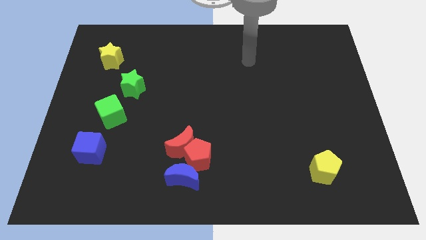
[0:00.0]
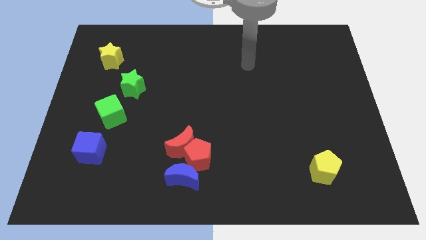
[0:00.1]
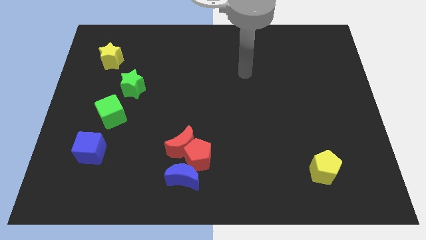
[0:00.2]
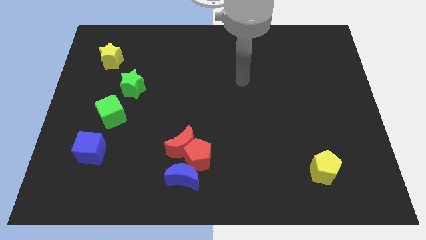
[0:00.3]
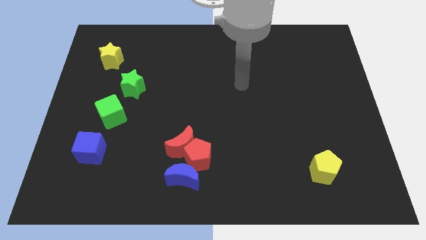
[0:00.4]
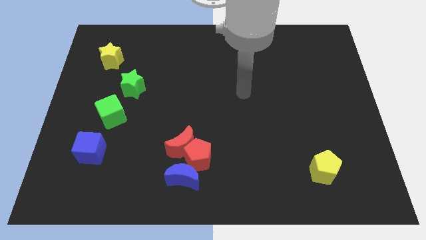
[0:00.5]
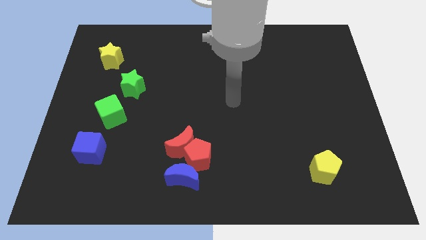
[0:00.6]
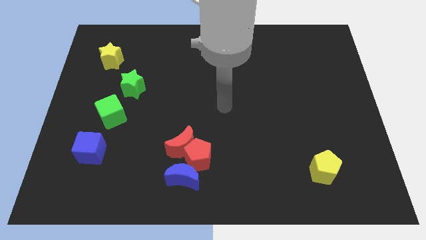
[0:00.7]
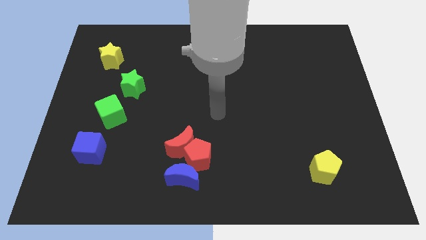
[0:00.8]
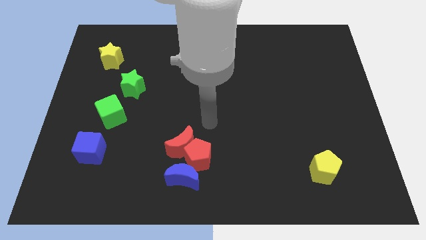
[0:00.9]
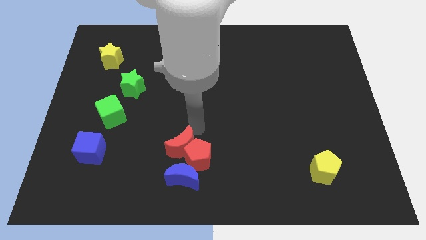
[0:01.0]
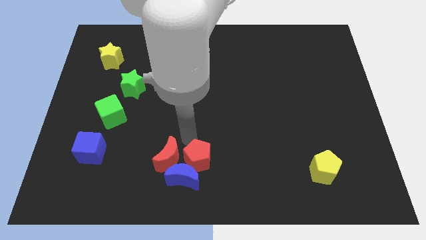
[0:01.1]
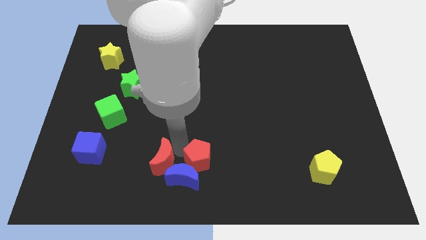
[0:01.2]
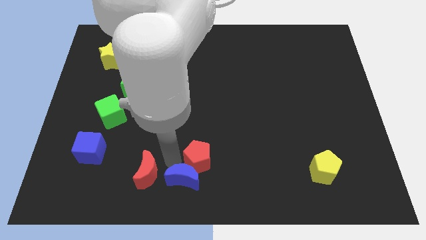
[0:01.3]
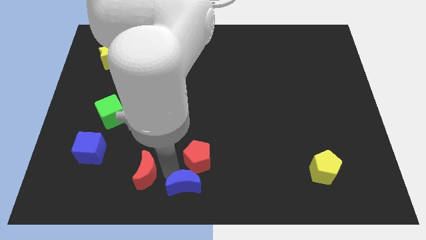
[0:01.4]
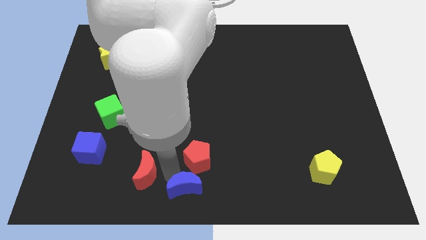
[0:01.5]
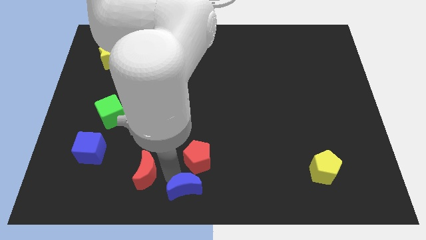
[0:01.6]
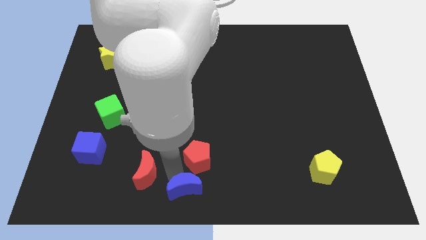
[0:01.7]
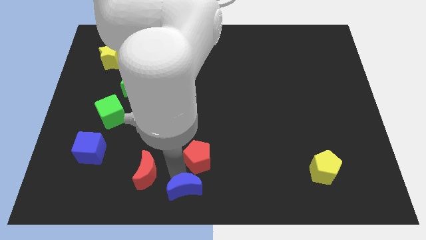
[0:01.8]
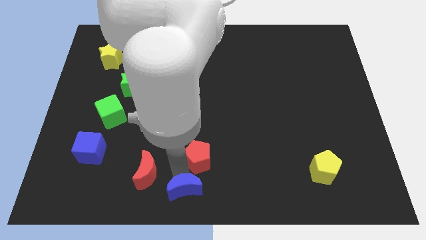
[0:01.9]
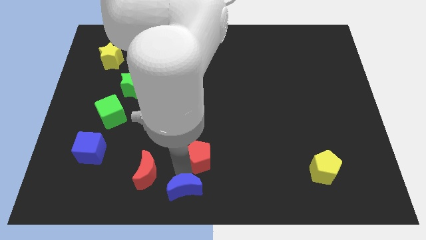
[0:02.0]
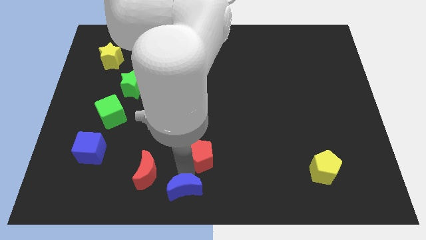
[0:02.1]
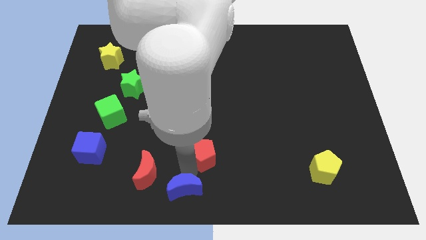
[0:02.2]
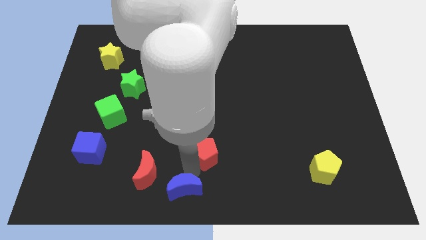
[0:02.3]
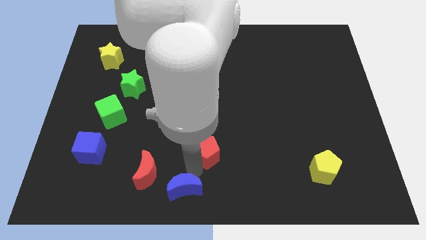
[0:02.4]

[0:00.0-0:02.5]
separate the red pentagon from the red moon and blue moon

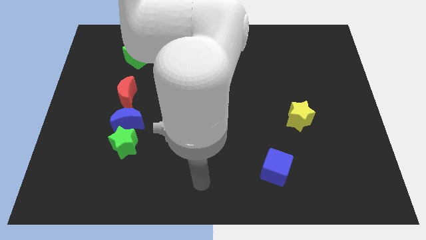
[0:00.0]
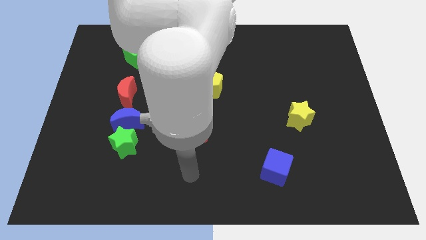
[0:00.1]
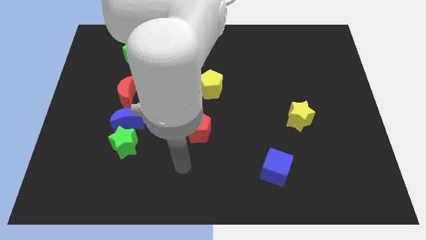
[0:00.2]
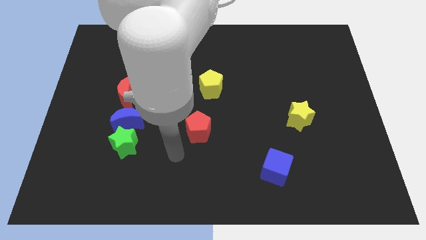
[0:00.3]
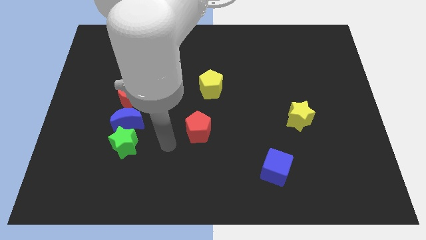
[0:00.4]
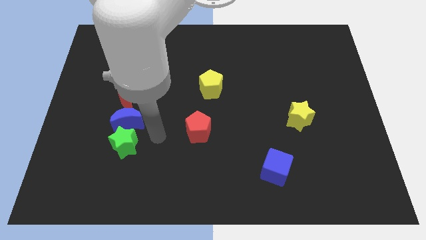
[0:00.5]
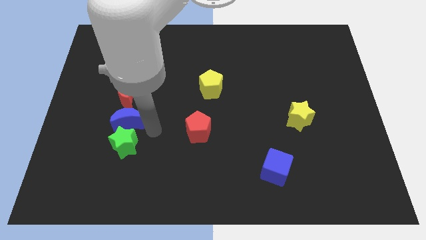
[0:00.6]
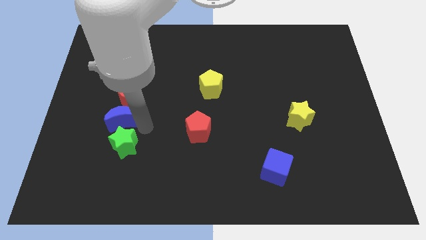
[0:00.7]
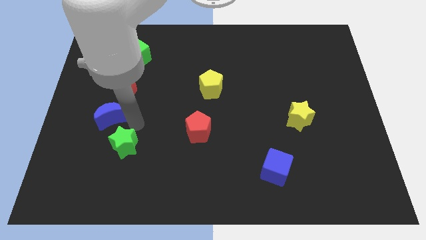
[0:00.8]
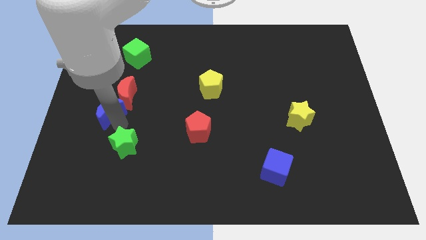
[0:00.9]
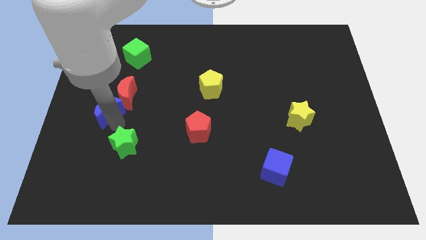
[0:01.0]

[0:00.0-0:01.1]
separate the green star from the blue moon

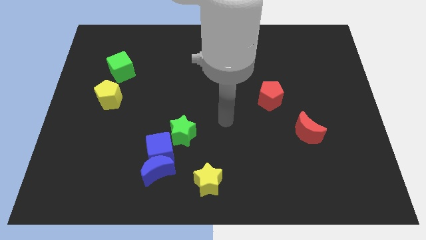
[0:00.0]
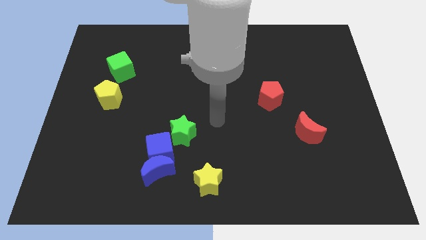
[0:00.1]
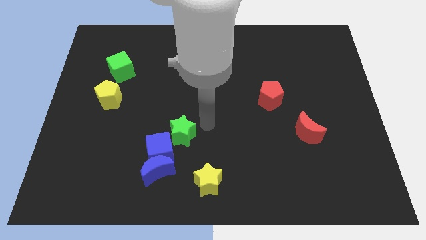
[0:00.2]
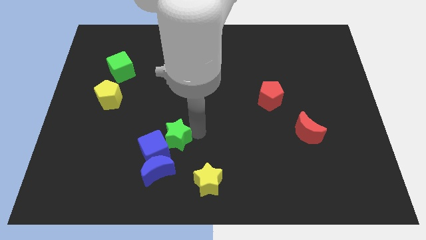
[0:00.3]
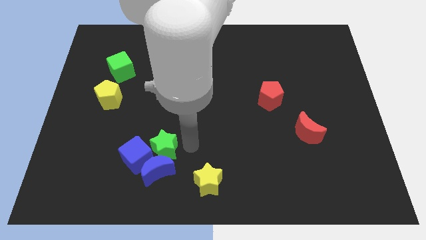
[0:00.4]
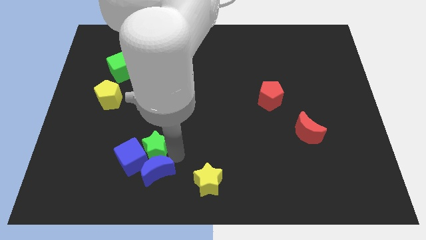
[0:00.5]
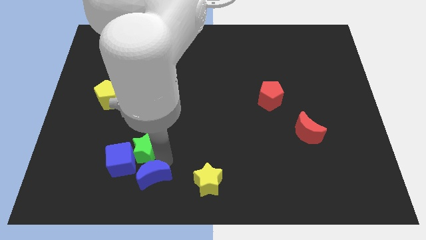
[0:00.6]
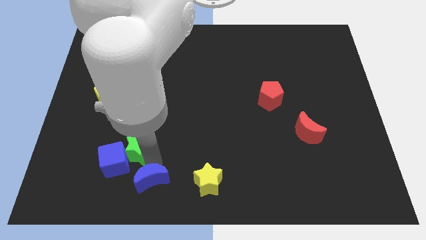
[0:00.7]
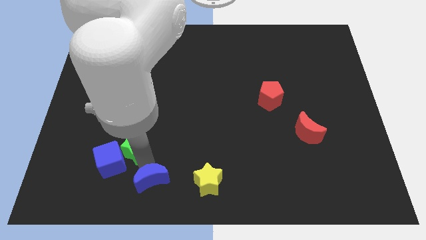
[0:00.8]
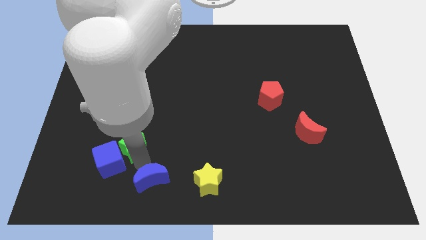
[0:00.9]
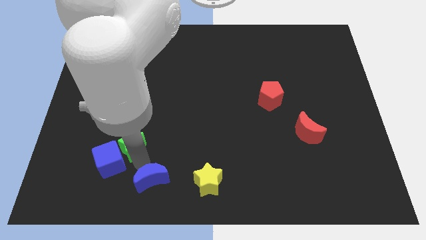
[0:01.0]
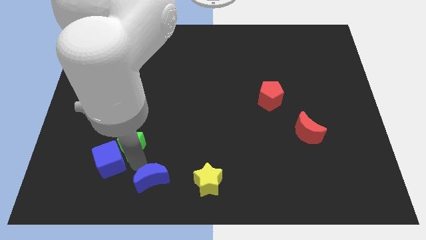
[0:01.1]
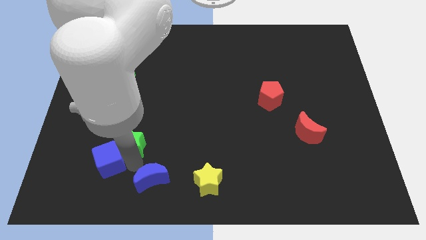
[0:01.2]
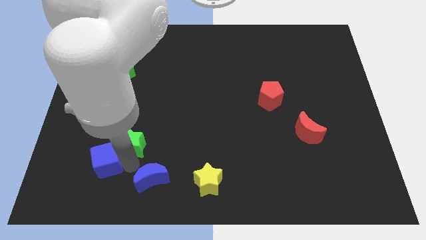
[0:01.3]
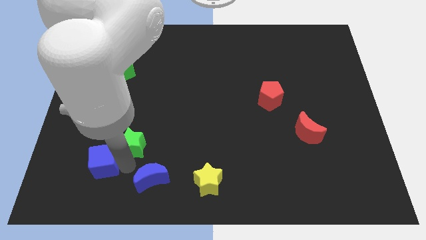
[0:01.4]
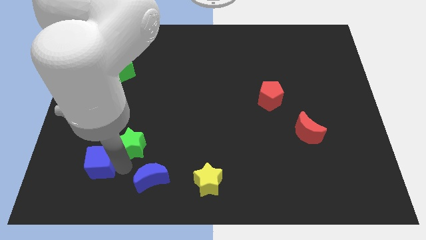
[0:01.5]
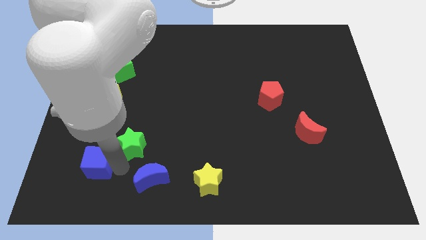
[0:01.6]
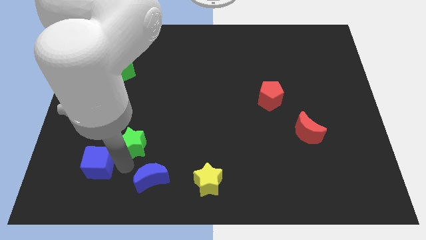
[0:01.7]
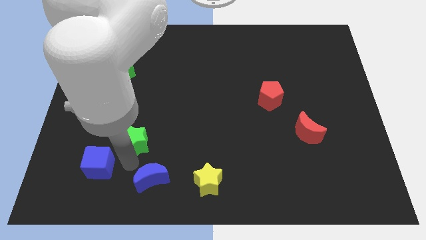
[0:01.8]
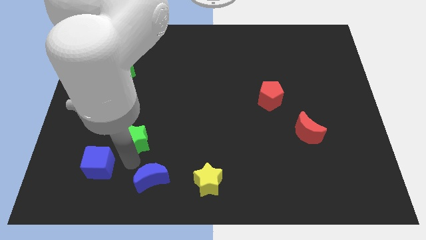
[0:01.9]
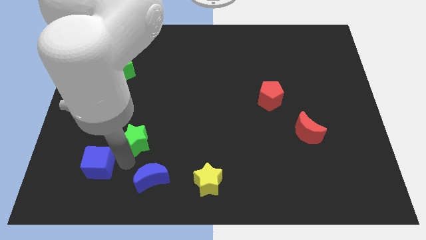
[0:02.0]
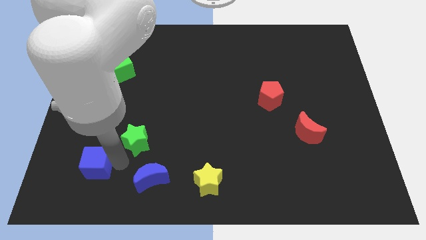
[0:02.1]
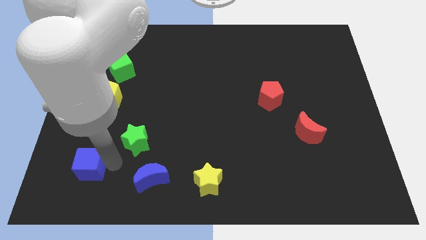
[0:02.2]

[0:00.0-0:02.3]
pull the blue cube apart from the blue moon and green star

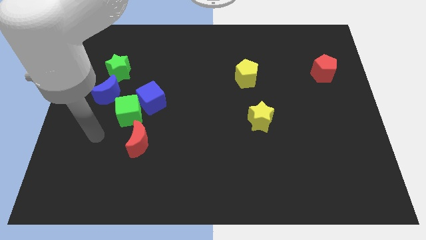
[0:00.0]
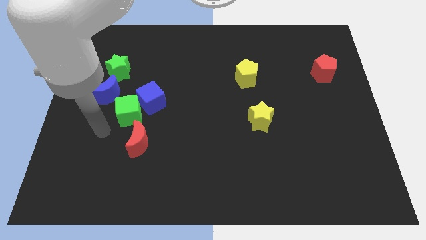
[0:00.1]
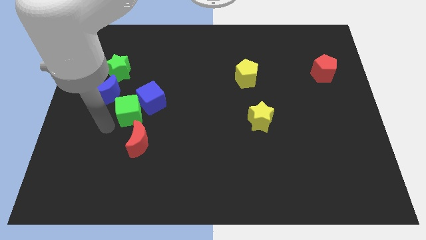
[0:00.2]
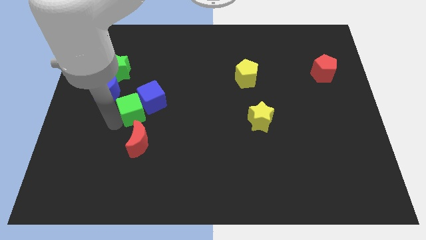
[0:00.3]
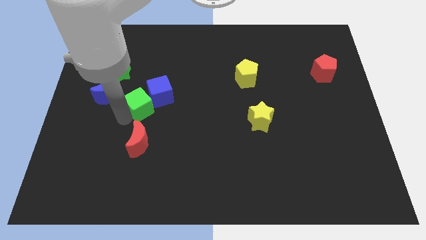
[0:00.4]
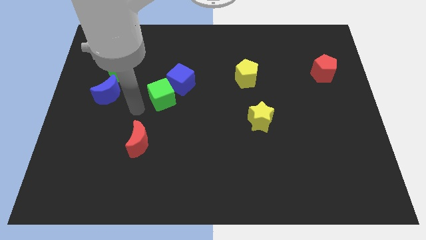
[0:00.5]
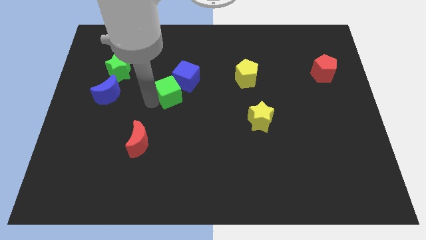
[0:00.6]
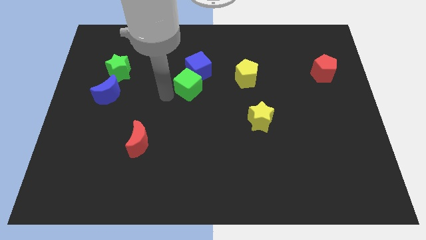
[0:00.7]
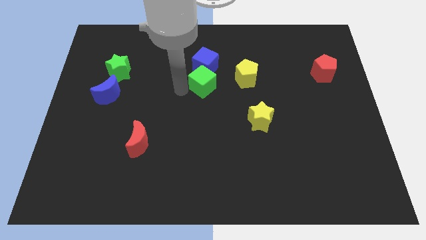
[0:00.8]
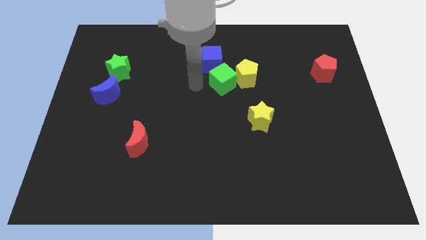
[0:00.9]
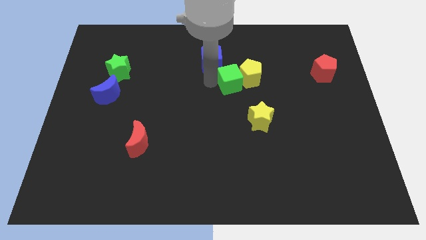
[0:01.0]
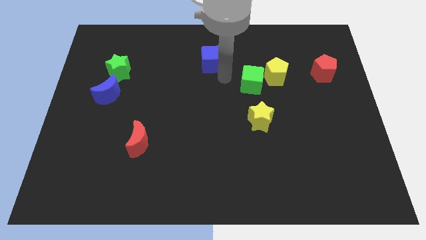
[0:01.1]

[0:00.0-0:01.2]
pull the blue cube apart from the green cube

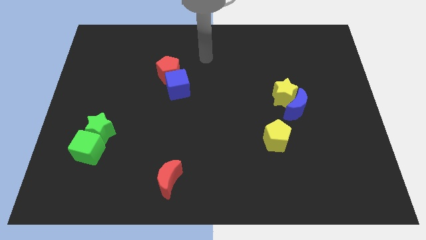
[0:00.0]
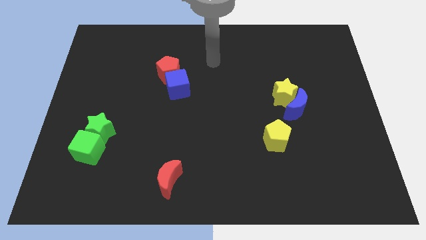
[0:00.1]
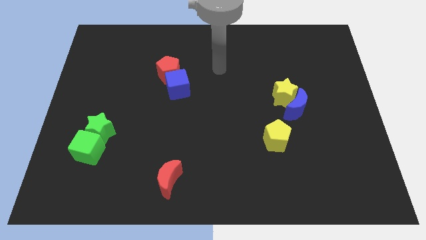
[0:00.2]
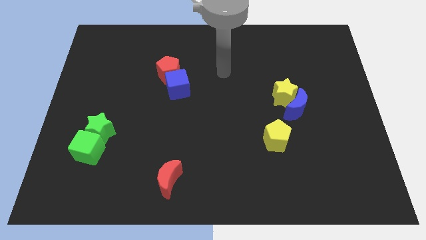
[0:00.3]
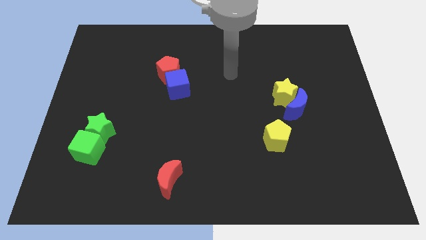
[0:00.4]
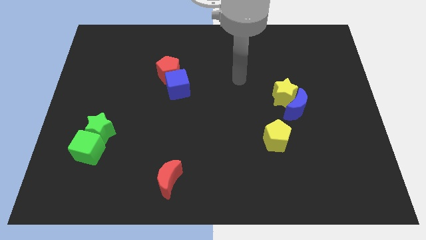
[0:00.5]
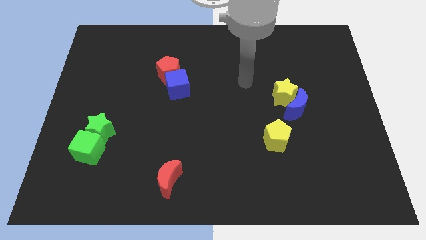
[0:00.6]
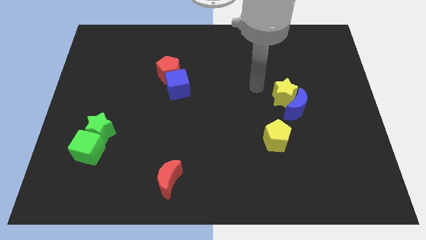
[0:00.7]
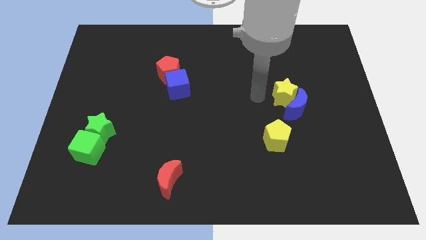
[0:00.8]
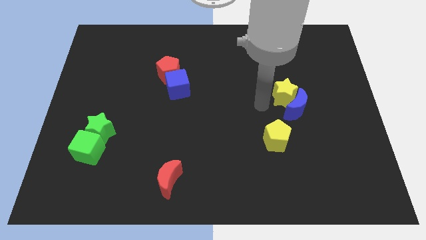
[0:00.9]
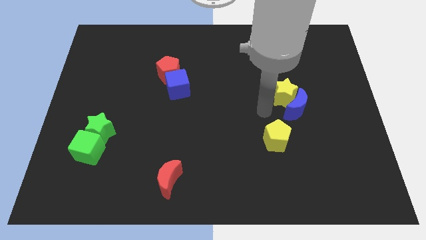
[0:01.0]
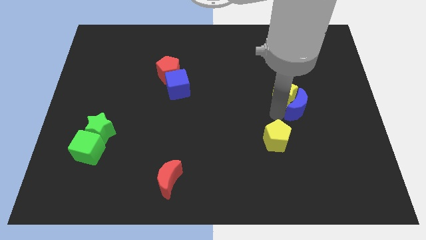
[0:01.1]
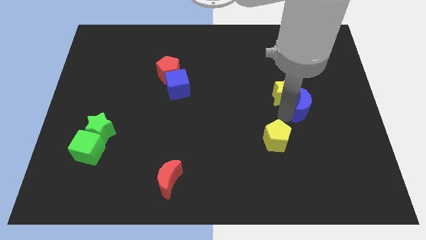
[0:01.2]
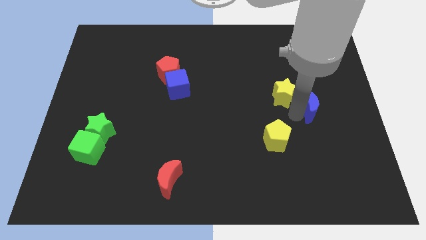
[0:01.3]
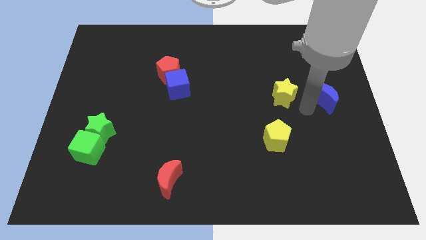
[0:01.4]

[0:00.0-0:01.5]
pull the yellow star apart from the blue moon

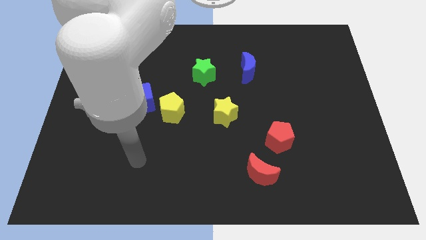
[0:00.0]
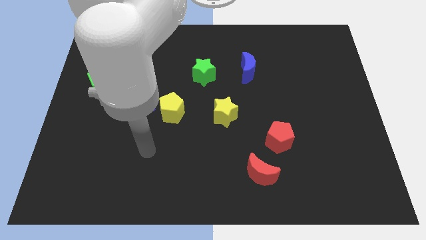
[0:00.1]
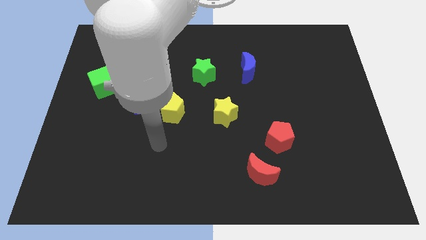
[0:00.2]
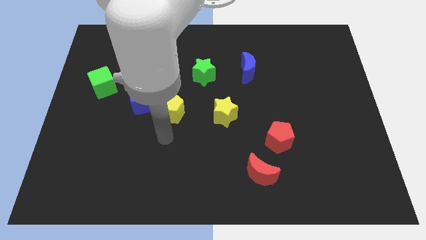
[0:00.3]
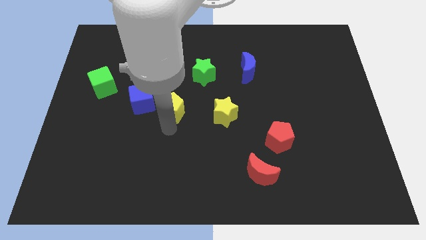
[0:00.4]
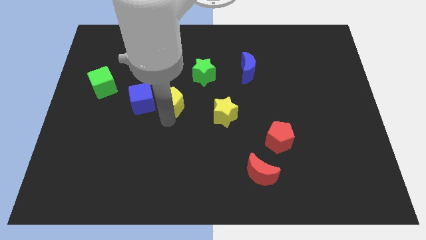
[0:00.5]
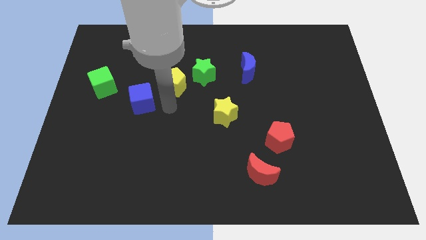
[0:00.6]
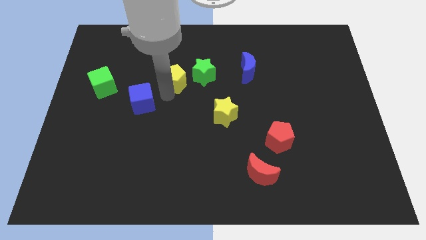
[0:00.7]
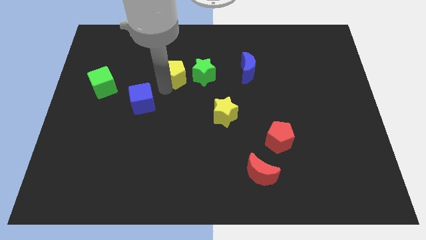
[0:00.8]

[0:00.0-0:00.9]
separate the blue cube from the yellow pentagon
